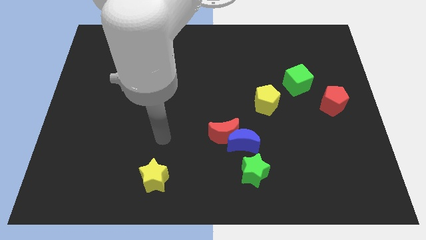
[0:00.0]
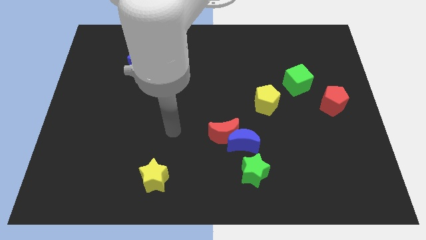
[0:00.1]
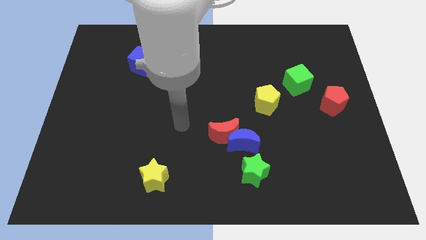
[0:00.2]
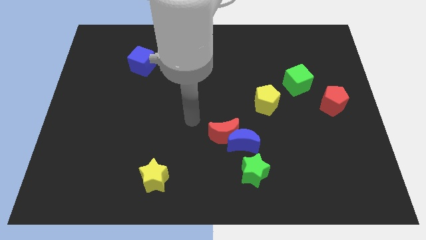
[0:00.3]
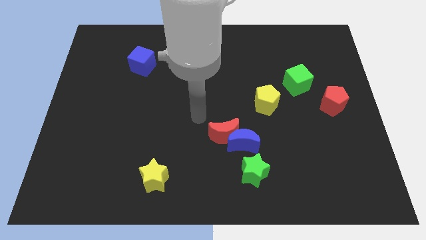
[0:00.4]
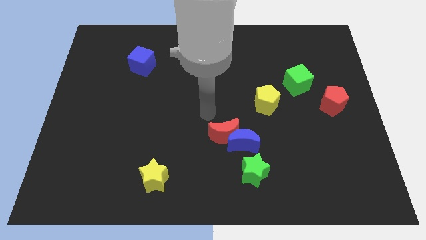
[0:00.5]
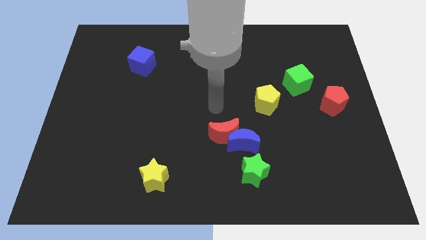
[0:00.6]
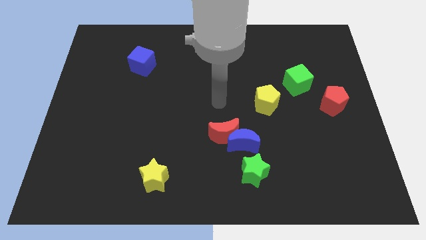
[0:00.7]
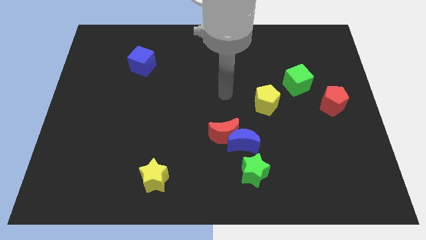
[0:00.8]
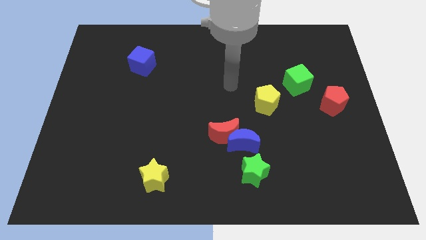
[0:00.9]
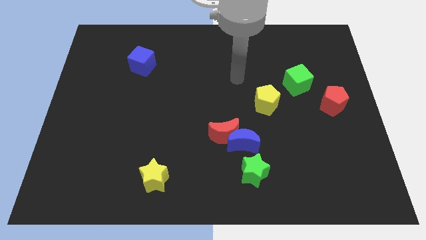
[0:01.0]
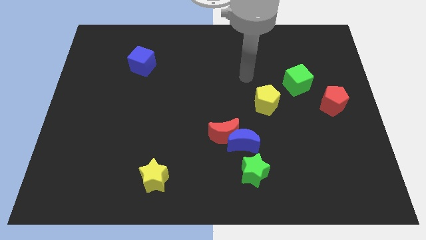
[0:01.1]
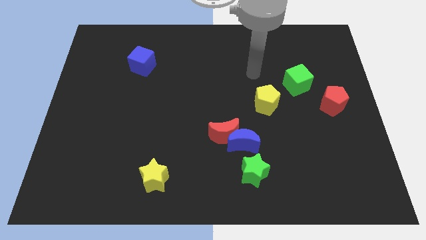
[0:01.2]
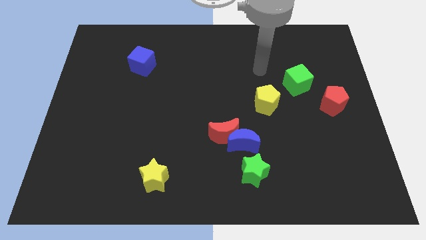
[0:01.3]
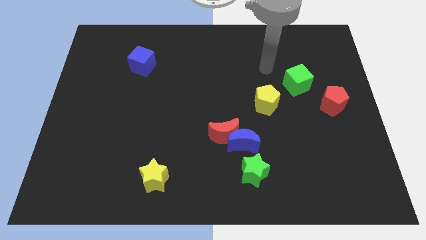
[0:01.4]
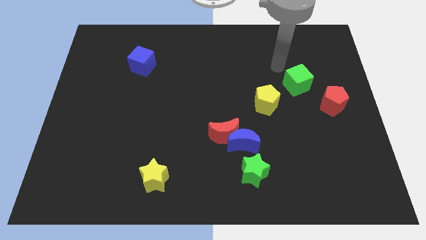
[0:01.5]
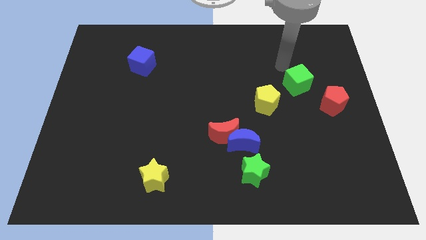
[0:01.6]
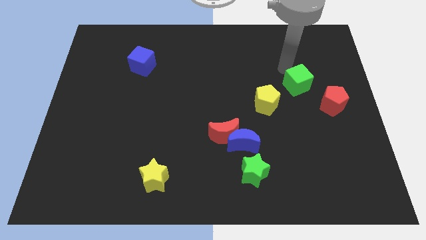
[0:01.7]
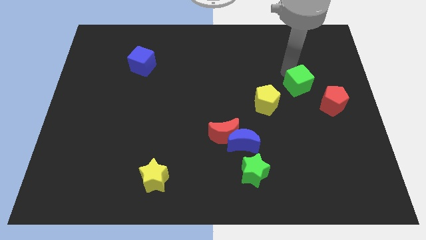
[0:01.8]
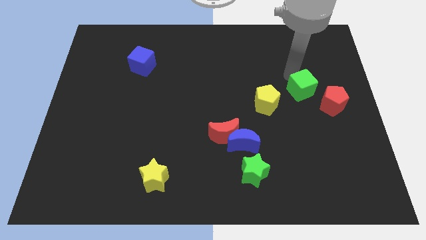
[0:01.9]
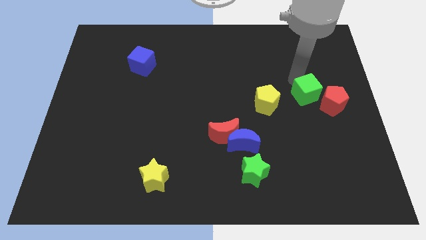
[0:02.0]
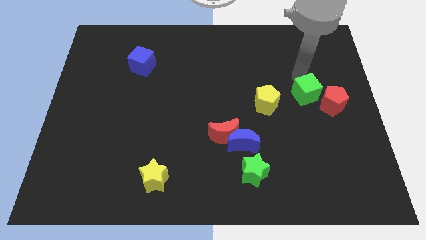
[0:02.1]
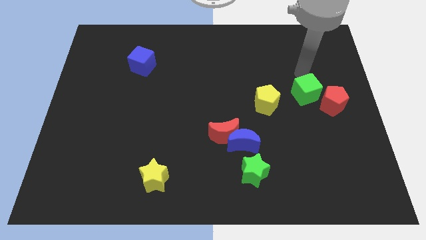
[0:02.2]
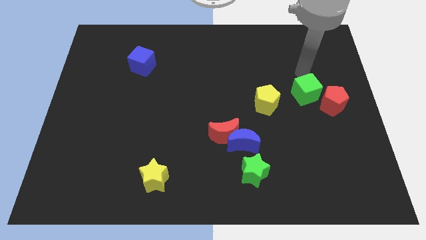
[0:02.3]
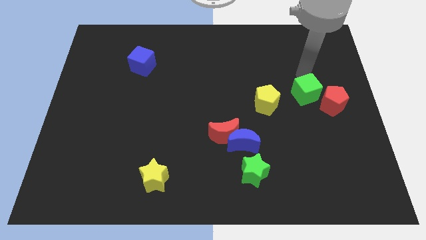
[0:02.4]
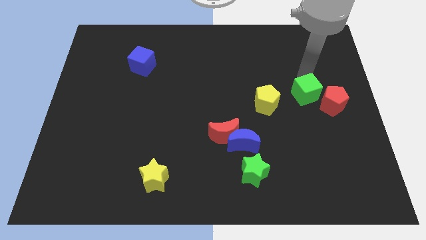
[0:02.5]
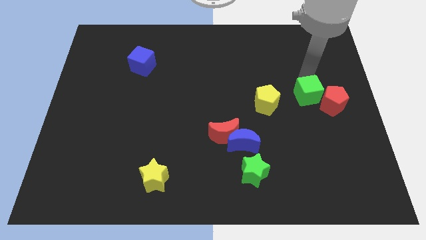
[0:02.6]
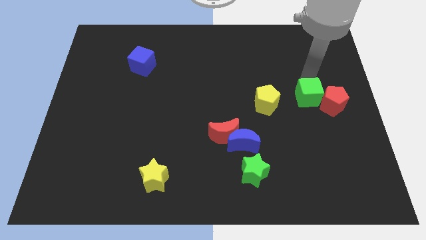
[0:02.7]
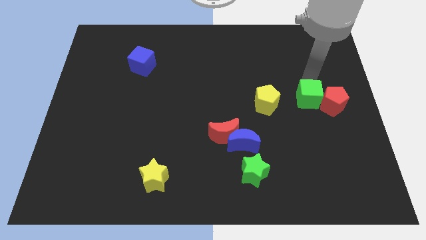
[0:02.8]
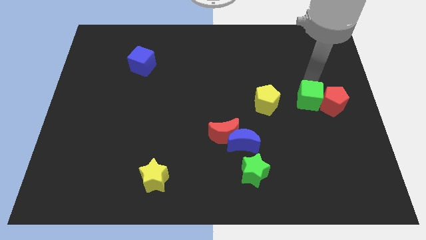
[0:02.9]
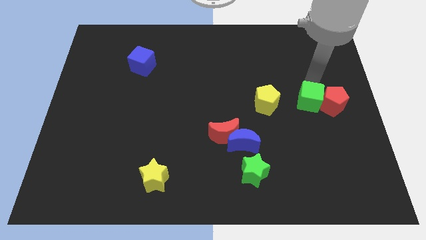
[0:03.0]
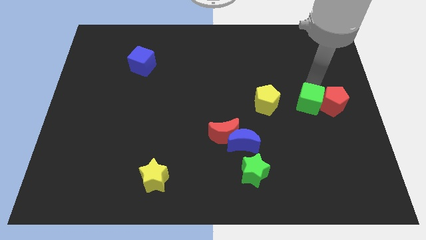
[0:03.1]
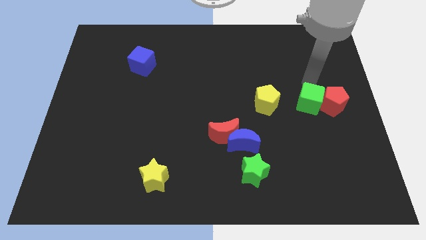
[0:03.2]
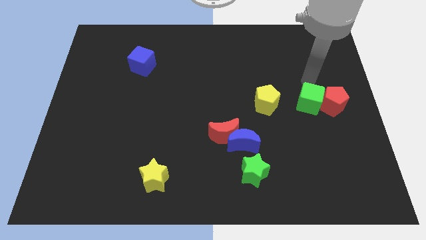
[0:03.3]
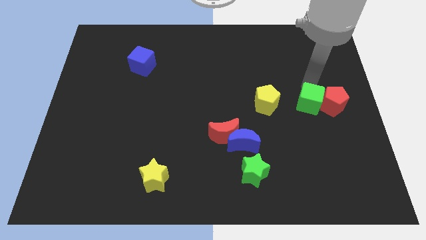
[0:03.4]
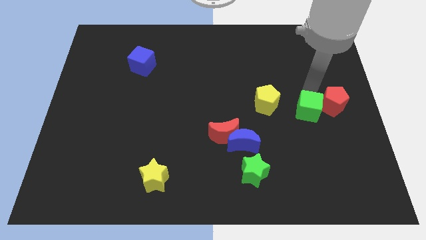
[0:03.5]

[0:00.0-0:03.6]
slide the green cube downwards a little

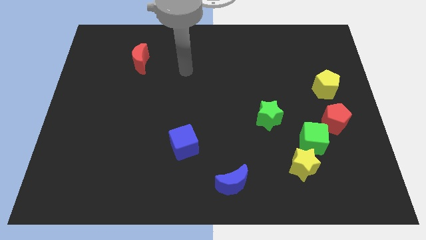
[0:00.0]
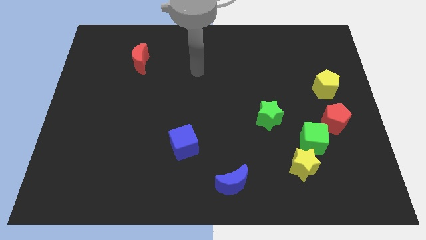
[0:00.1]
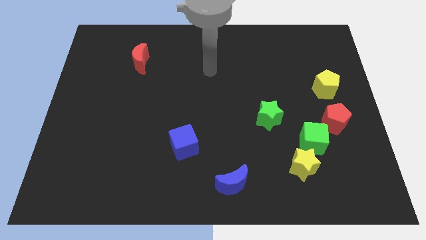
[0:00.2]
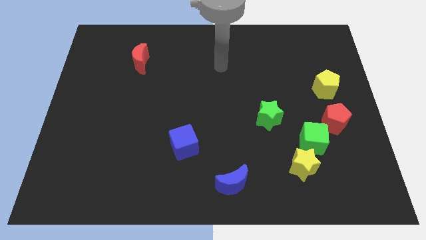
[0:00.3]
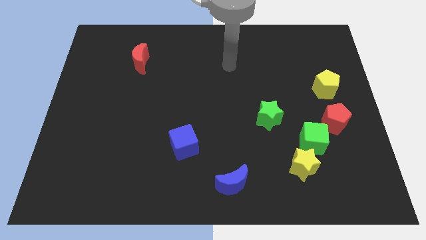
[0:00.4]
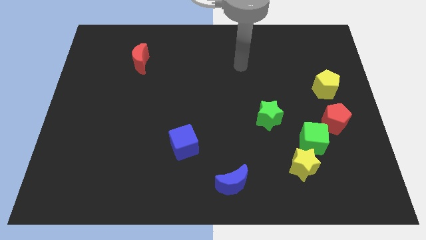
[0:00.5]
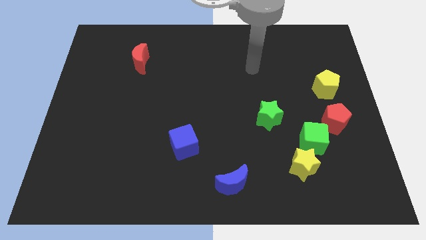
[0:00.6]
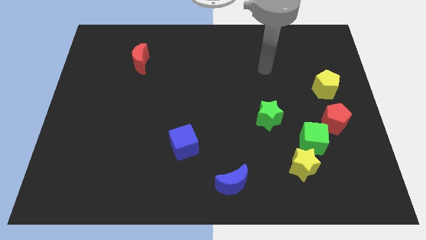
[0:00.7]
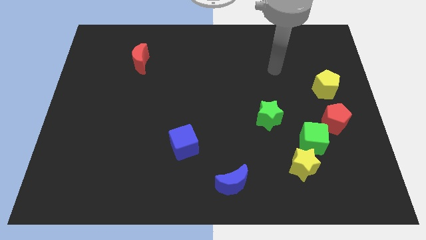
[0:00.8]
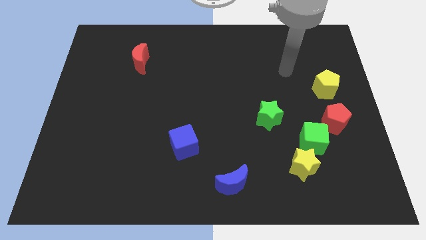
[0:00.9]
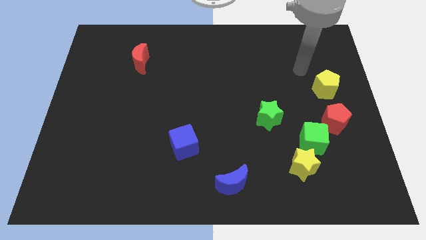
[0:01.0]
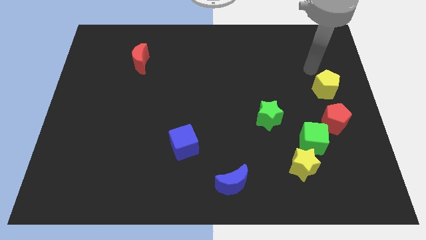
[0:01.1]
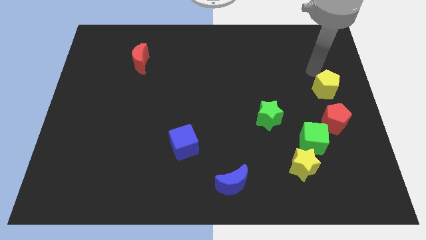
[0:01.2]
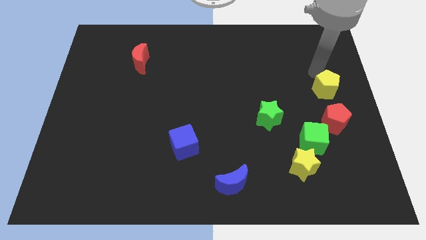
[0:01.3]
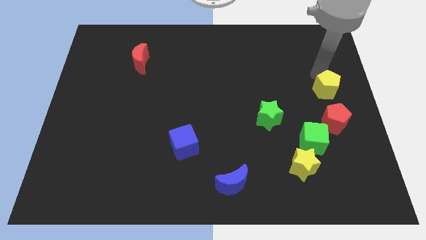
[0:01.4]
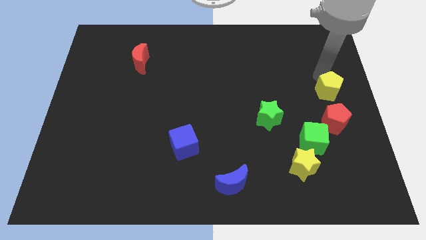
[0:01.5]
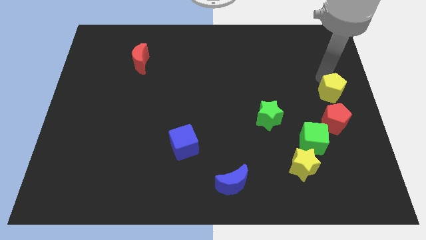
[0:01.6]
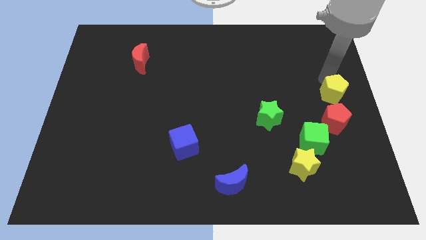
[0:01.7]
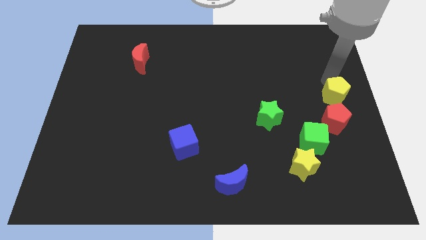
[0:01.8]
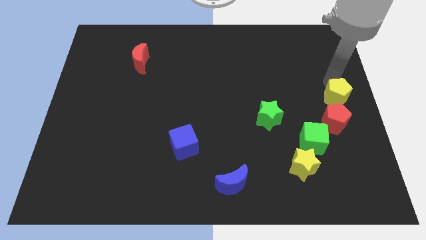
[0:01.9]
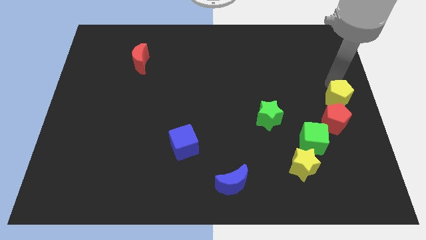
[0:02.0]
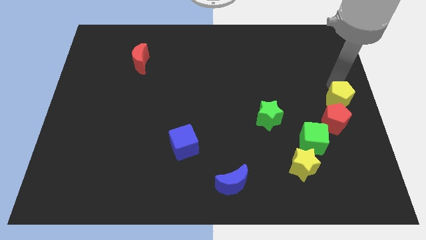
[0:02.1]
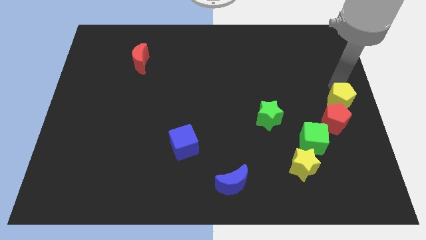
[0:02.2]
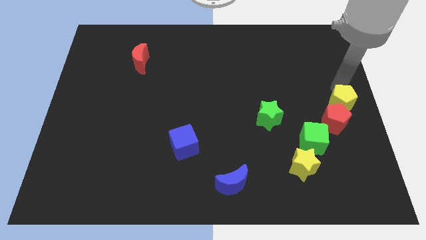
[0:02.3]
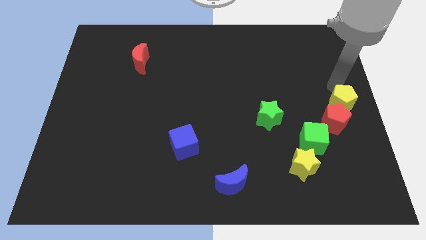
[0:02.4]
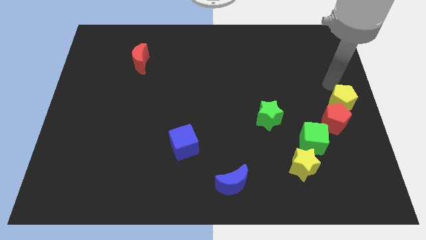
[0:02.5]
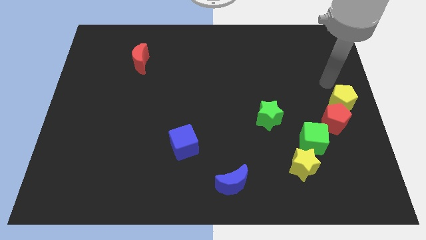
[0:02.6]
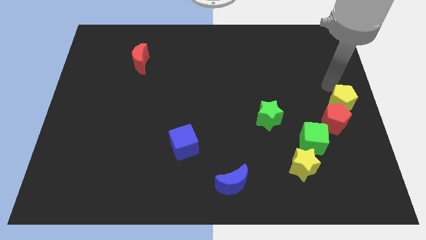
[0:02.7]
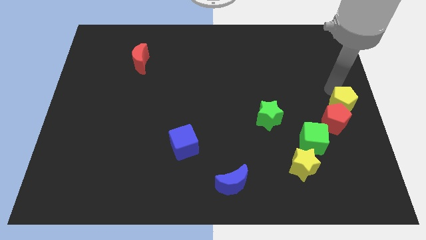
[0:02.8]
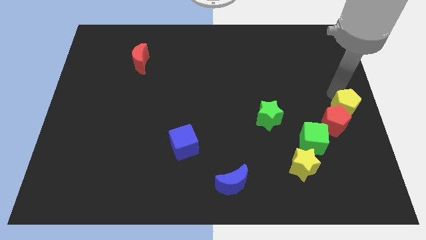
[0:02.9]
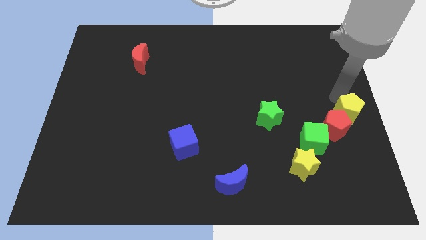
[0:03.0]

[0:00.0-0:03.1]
slide the yellow pentagon a little downwards

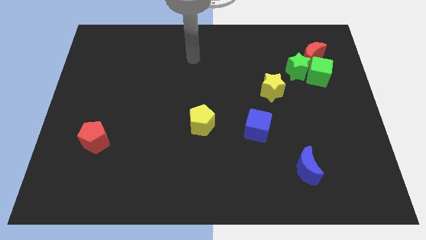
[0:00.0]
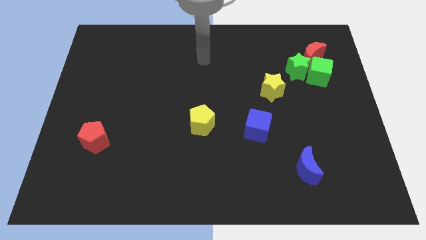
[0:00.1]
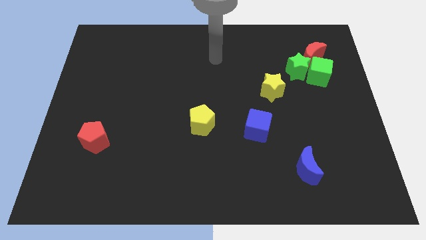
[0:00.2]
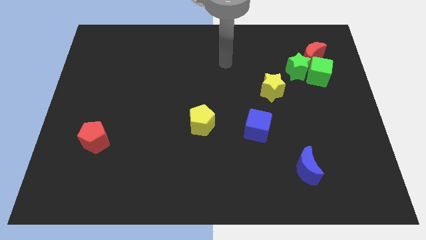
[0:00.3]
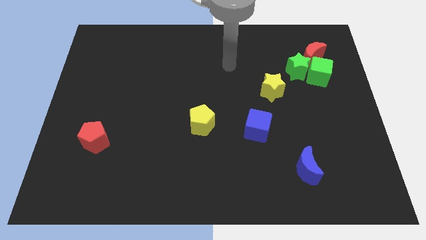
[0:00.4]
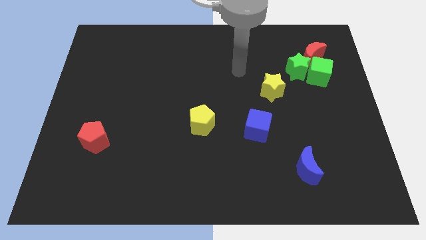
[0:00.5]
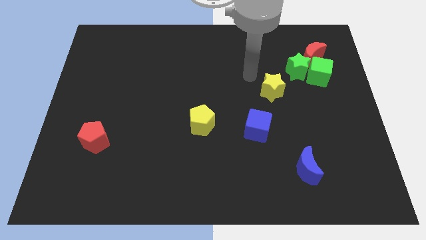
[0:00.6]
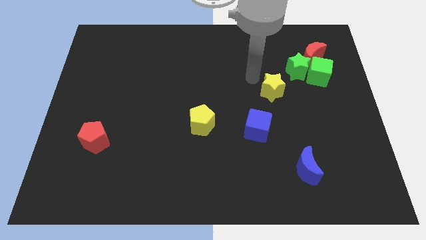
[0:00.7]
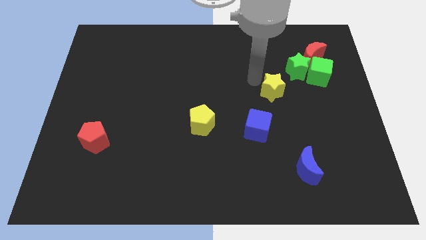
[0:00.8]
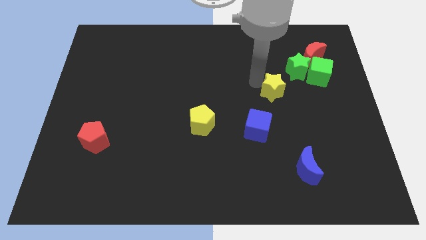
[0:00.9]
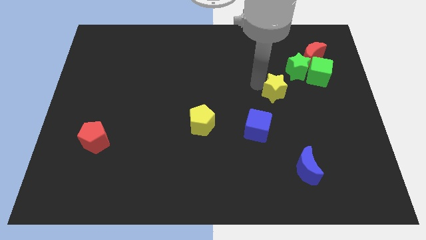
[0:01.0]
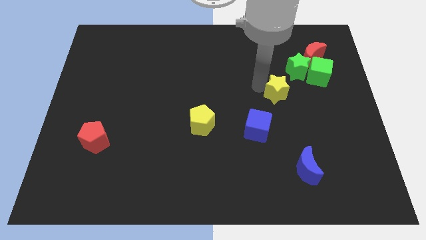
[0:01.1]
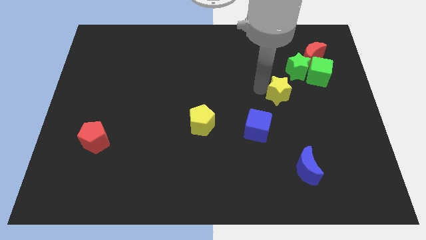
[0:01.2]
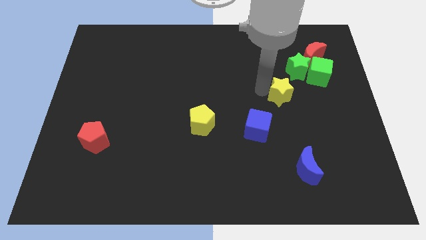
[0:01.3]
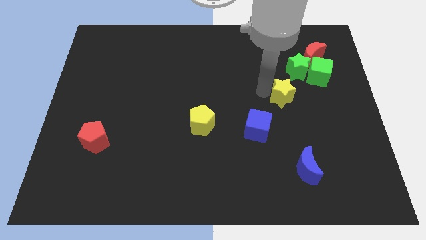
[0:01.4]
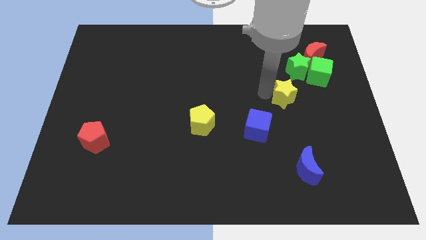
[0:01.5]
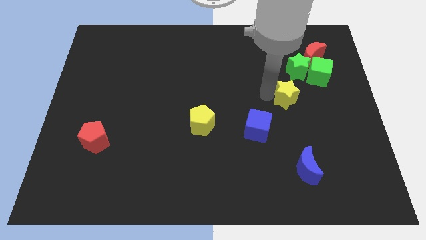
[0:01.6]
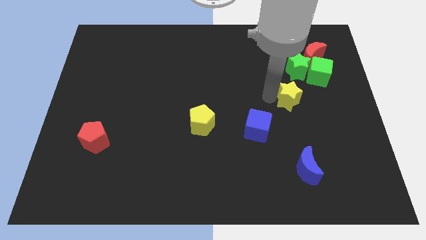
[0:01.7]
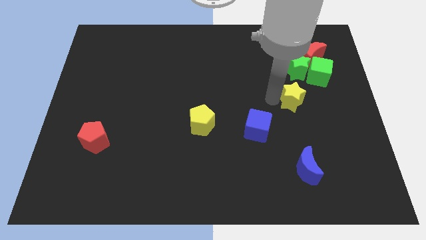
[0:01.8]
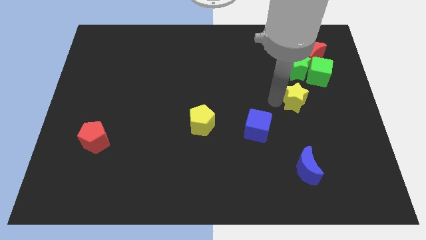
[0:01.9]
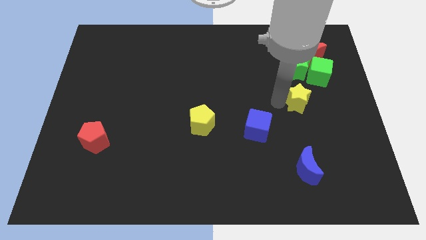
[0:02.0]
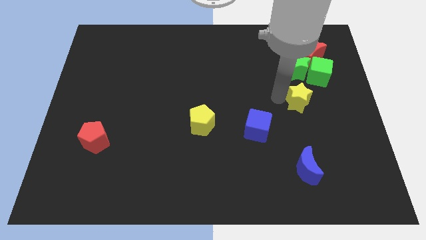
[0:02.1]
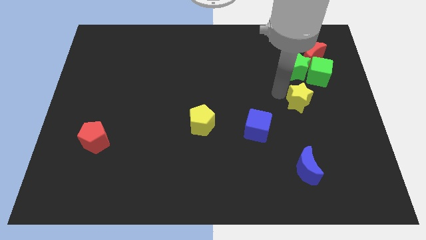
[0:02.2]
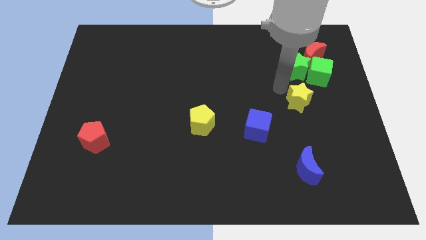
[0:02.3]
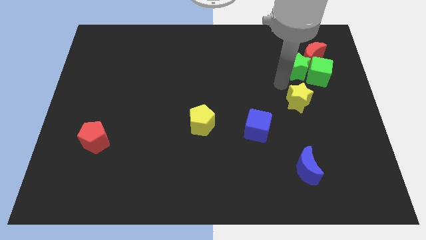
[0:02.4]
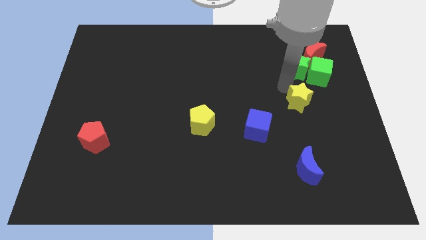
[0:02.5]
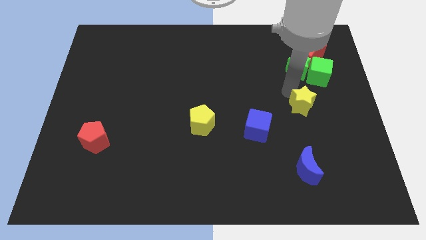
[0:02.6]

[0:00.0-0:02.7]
move the yellow star diagonally downwards and right somewhat
